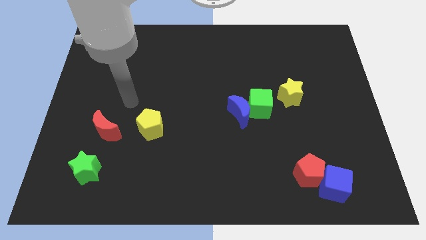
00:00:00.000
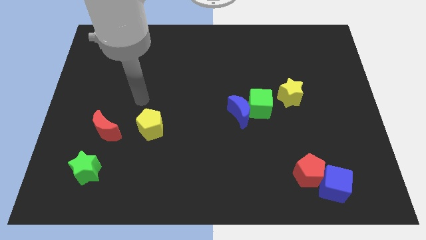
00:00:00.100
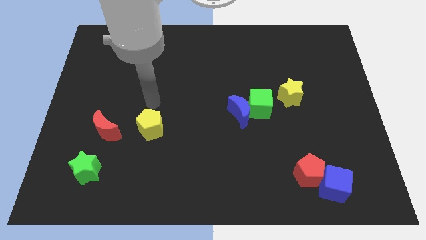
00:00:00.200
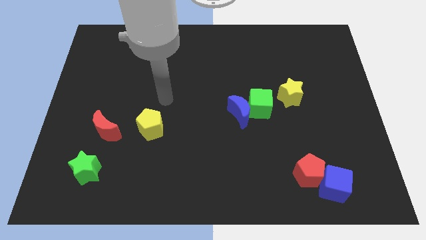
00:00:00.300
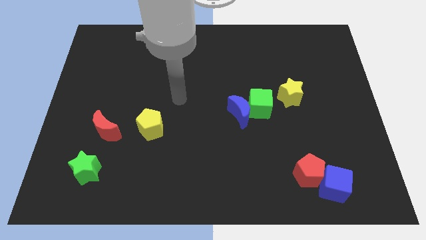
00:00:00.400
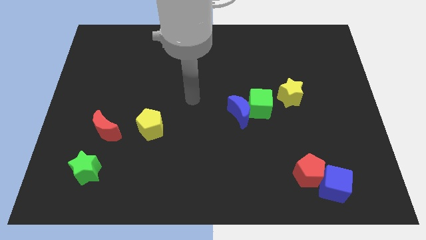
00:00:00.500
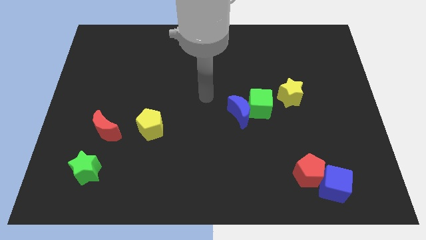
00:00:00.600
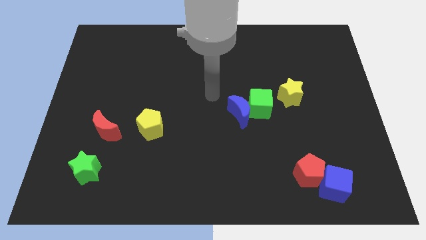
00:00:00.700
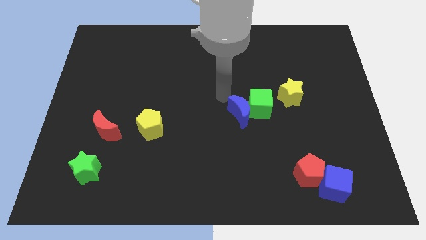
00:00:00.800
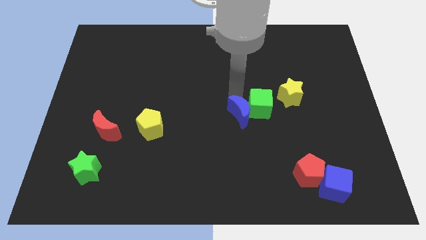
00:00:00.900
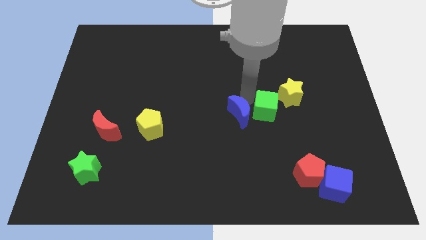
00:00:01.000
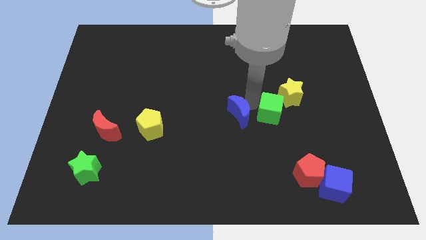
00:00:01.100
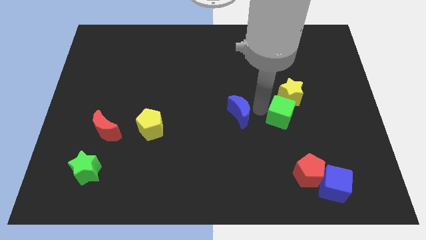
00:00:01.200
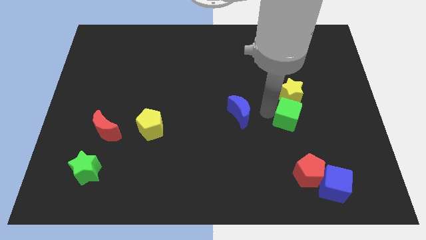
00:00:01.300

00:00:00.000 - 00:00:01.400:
pull the blue moon apart from the green cube

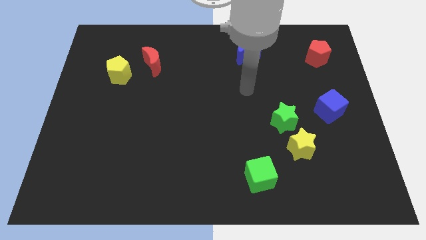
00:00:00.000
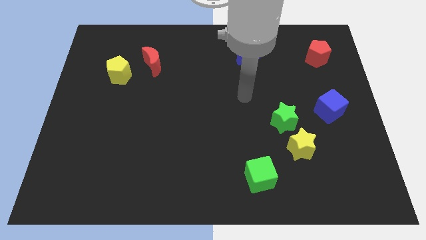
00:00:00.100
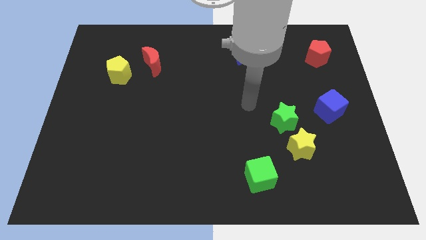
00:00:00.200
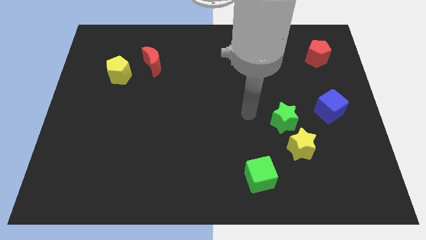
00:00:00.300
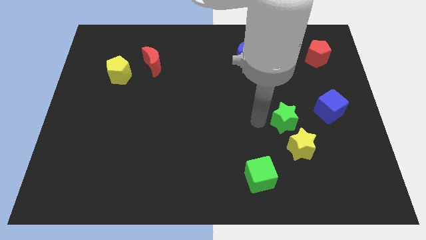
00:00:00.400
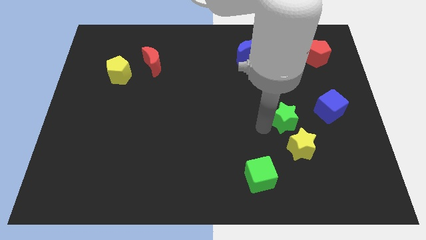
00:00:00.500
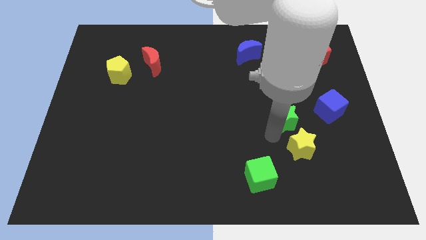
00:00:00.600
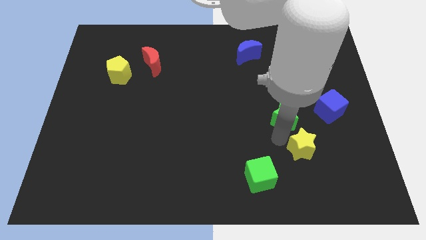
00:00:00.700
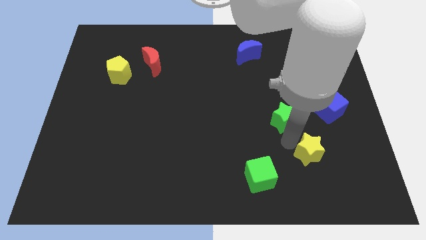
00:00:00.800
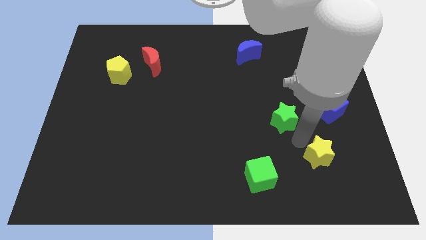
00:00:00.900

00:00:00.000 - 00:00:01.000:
separate the green star from the yellow star

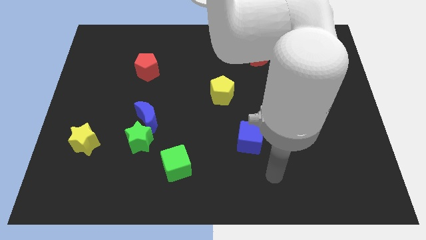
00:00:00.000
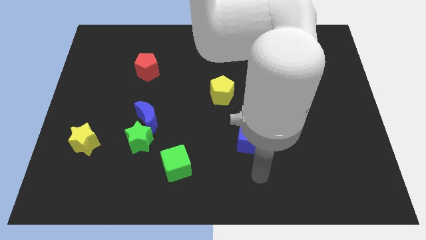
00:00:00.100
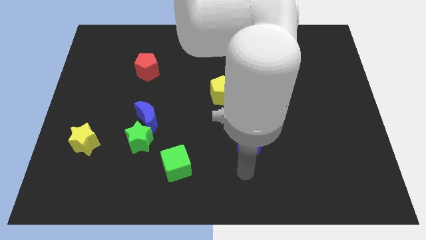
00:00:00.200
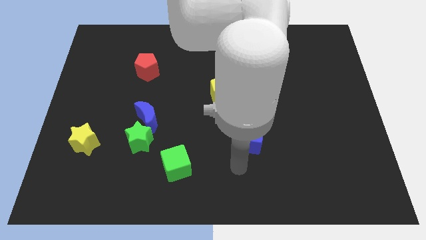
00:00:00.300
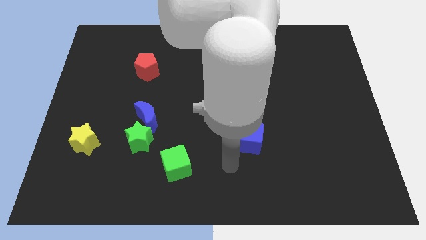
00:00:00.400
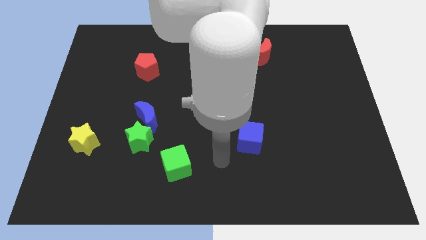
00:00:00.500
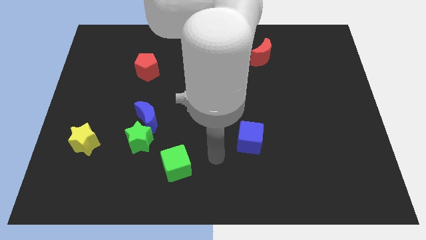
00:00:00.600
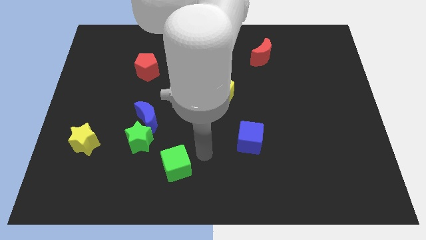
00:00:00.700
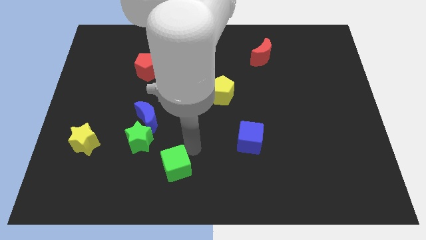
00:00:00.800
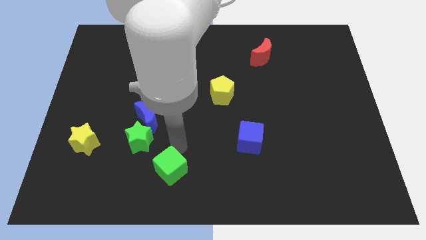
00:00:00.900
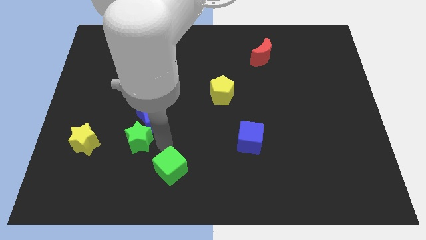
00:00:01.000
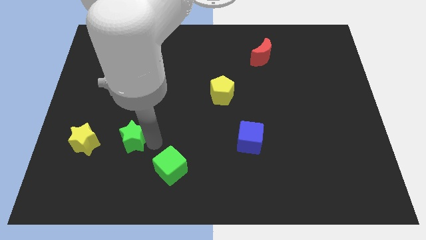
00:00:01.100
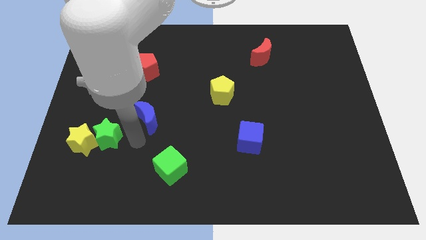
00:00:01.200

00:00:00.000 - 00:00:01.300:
pull the blue moon apart from the green star

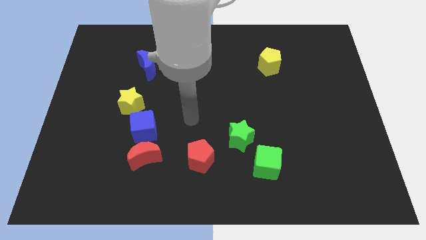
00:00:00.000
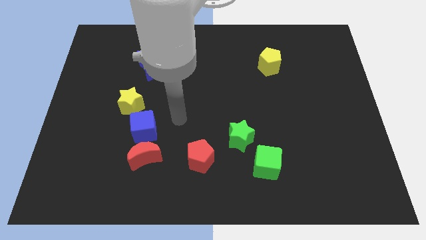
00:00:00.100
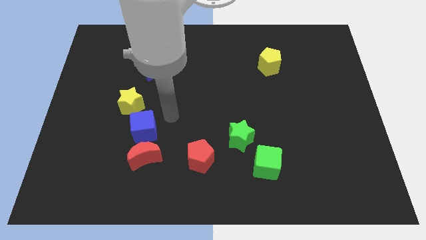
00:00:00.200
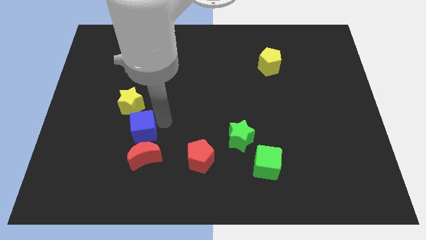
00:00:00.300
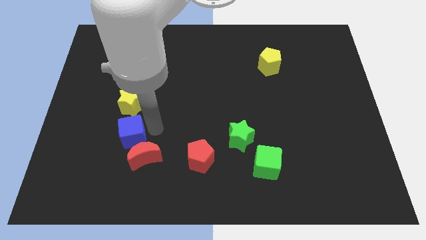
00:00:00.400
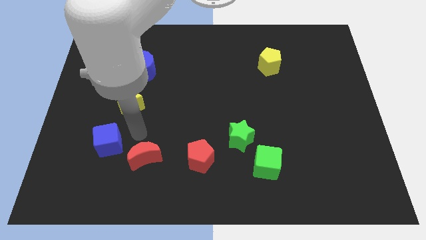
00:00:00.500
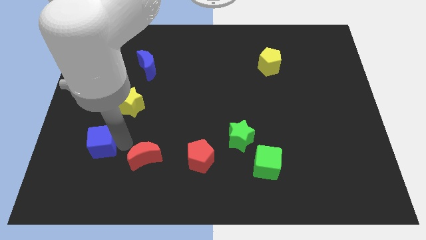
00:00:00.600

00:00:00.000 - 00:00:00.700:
separate the red moon from the blue cube

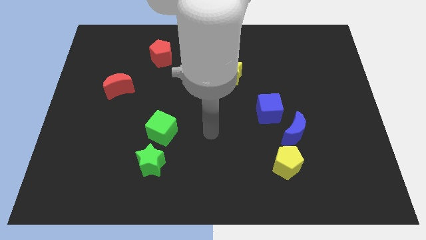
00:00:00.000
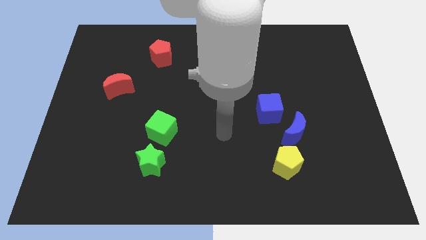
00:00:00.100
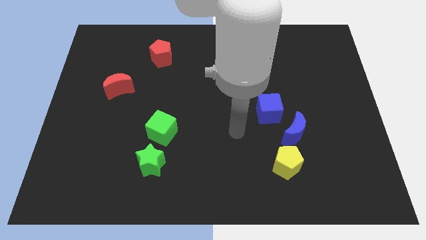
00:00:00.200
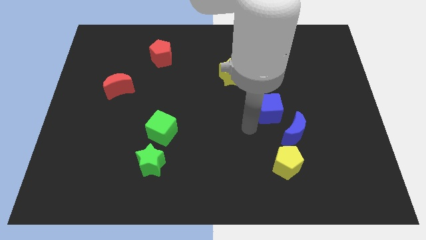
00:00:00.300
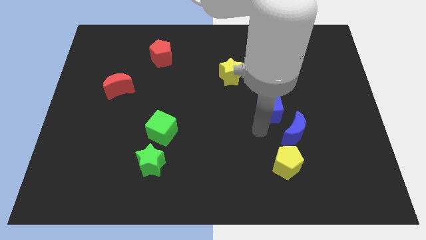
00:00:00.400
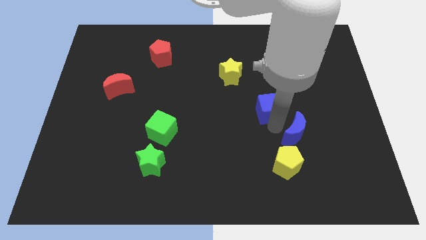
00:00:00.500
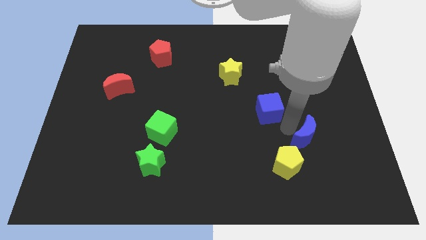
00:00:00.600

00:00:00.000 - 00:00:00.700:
move the blue cube away from the blue moon

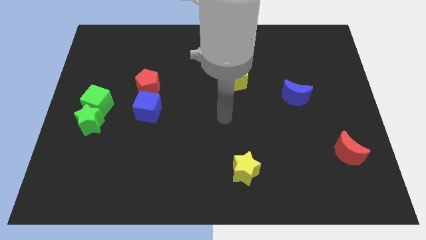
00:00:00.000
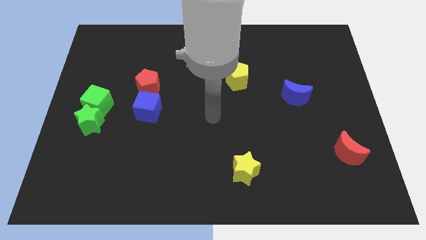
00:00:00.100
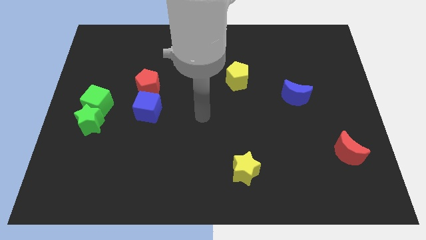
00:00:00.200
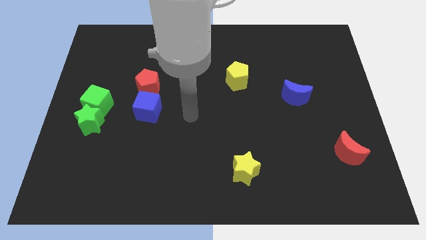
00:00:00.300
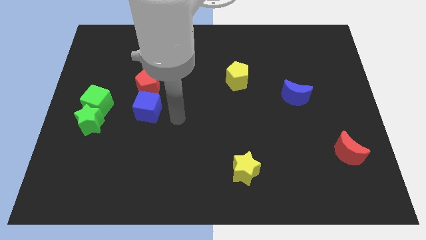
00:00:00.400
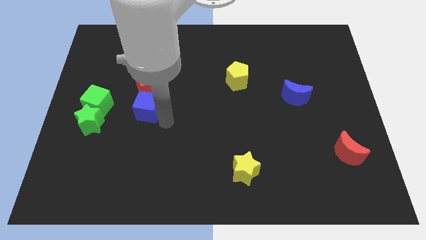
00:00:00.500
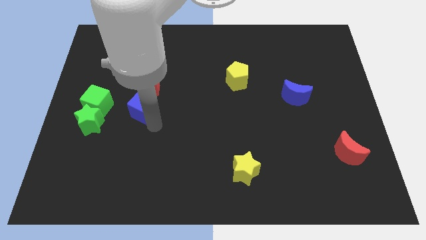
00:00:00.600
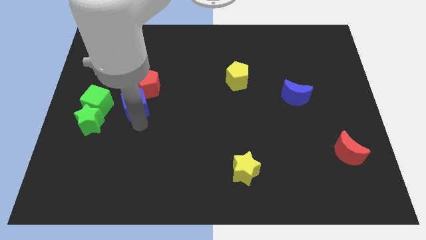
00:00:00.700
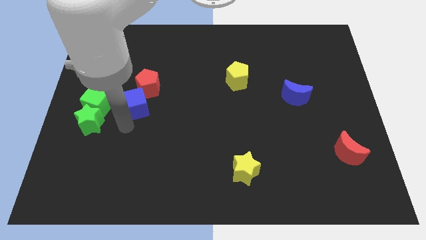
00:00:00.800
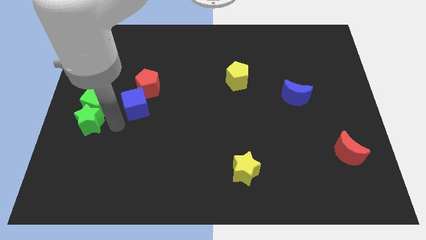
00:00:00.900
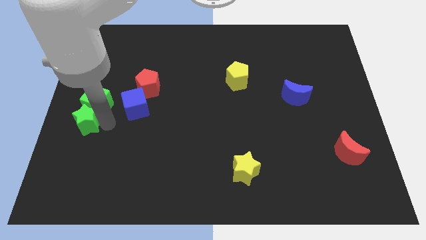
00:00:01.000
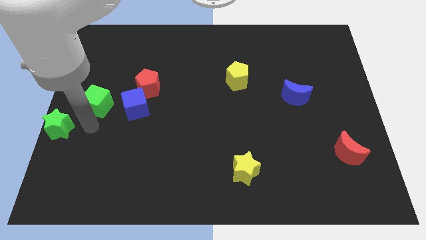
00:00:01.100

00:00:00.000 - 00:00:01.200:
separate the green cube from the green star

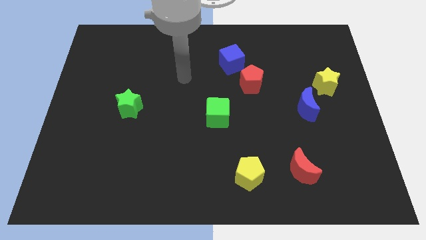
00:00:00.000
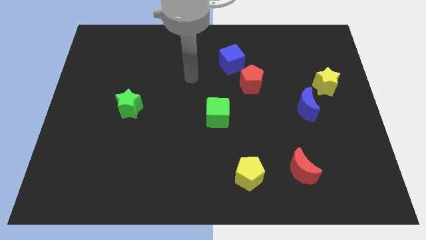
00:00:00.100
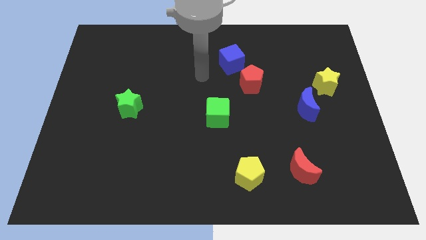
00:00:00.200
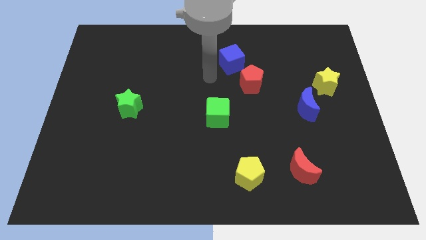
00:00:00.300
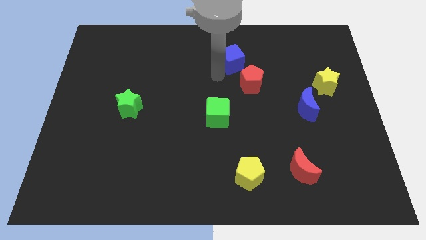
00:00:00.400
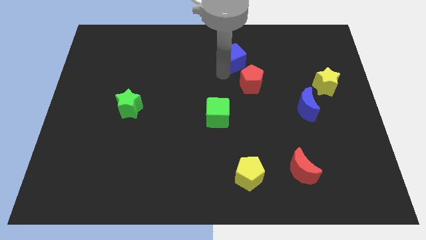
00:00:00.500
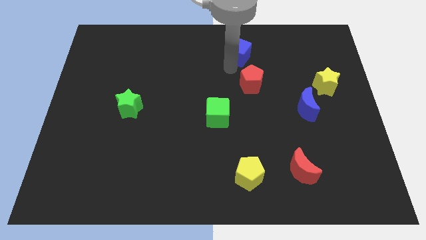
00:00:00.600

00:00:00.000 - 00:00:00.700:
separate the red pentagon from the blue cube

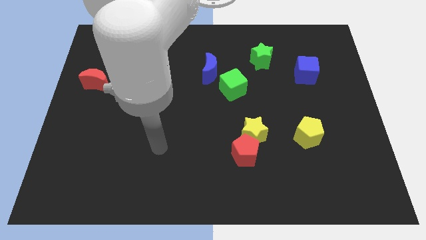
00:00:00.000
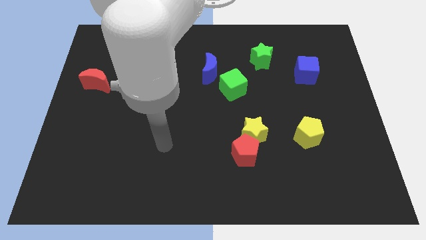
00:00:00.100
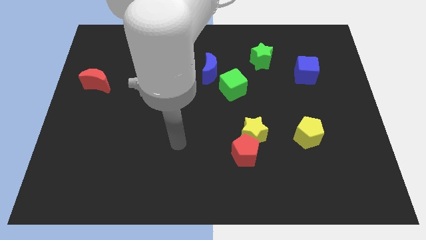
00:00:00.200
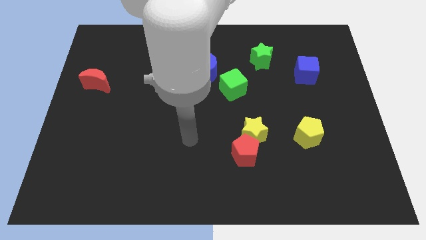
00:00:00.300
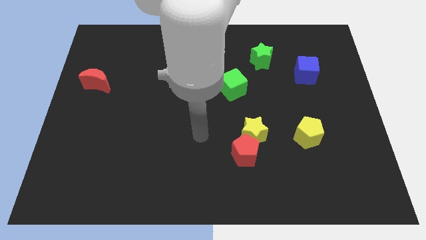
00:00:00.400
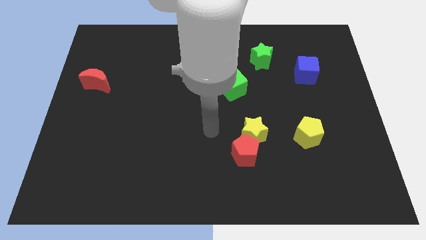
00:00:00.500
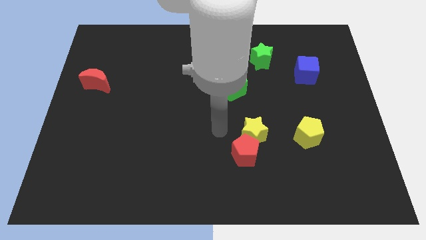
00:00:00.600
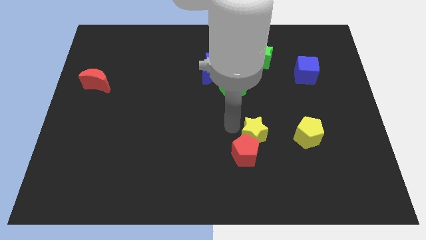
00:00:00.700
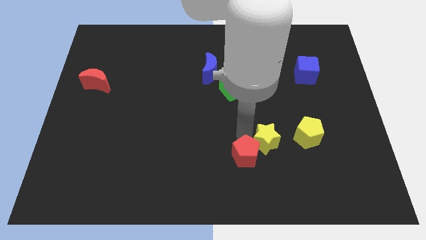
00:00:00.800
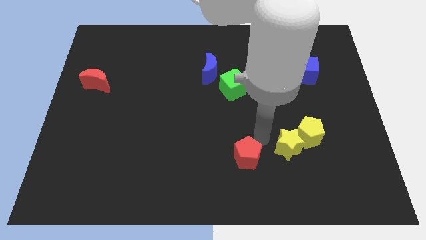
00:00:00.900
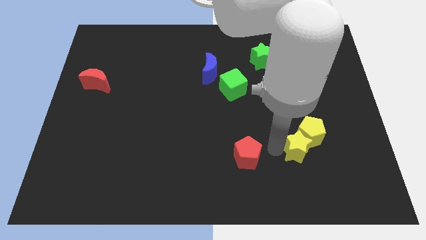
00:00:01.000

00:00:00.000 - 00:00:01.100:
move the red pentagon away from the yellow star

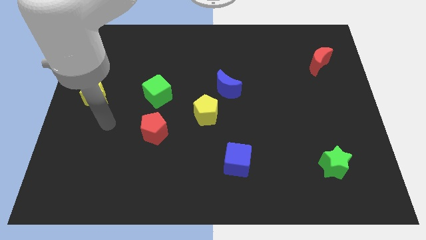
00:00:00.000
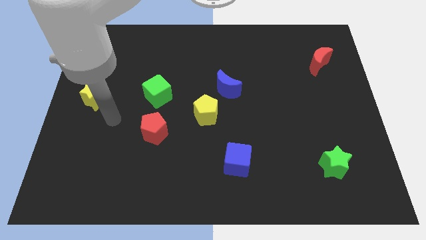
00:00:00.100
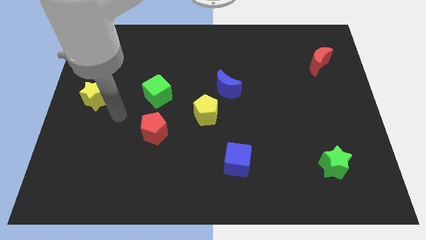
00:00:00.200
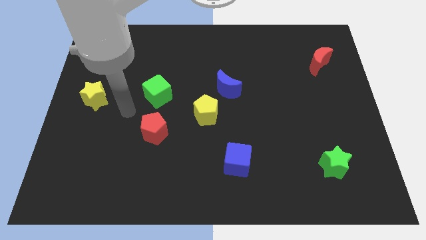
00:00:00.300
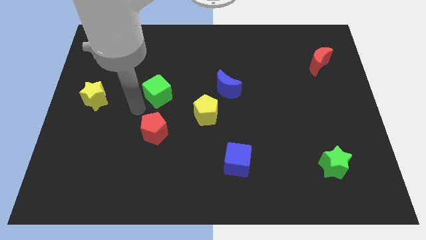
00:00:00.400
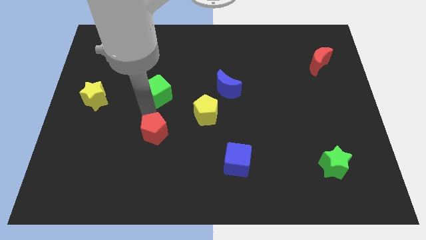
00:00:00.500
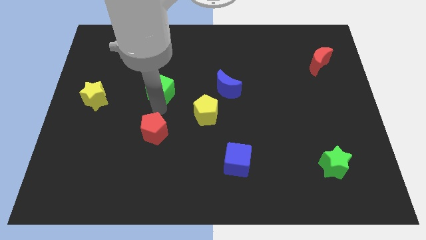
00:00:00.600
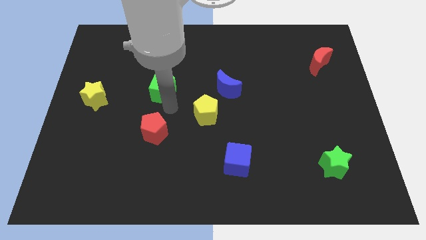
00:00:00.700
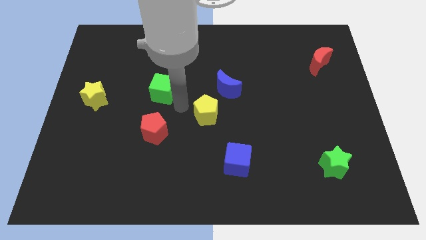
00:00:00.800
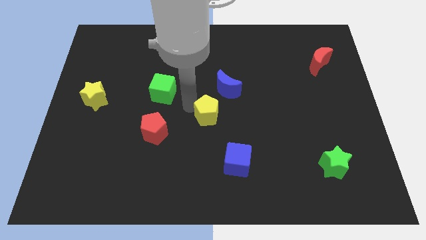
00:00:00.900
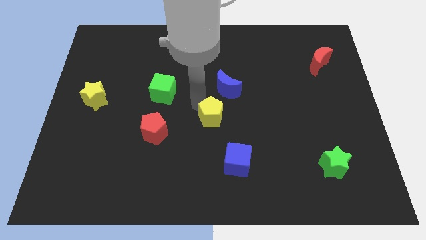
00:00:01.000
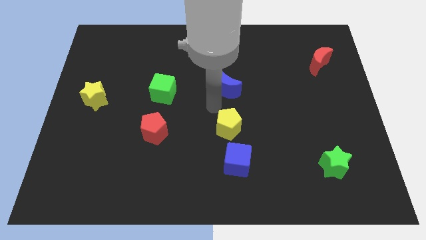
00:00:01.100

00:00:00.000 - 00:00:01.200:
pull the blue moon apart from the yellow pentagon
